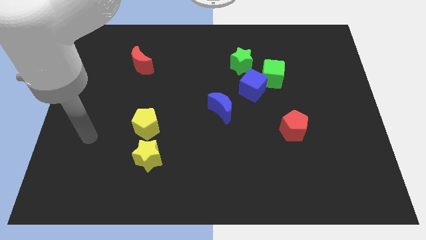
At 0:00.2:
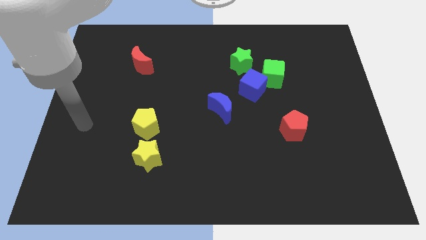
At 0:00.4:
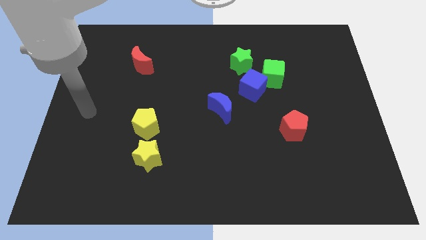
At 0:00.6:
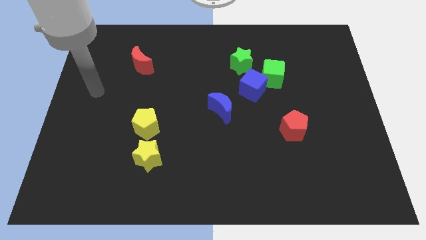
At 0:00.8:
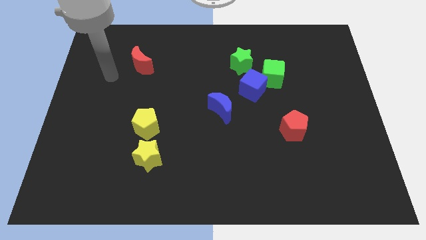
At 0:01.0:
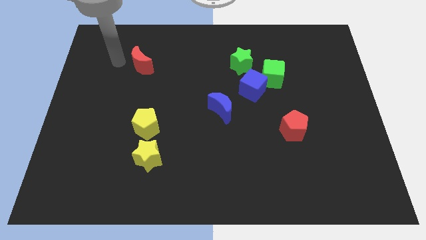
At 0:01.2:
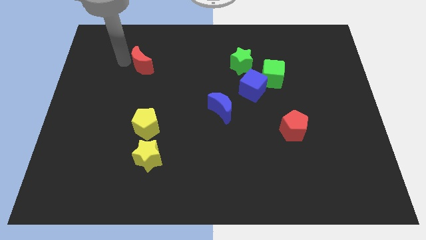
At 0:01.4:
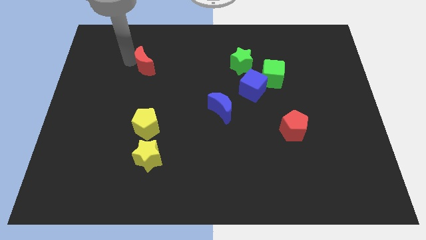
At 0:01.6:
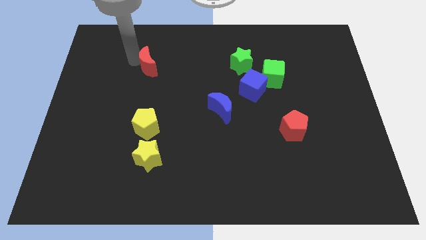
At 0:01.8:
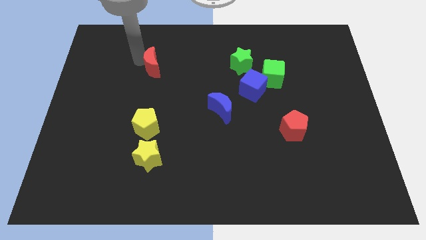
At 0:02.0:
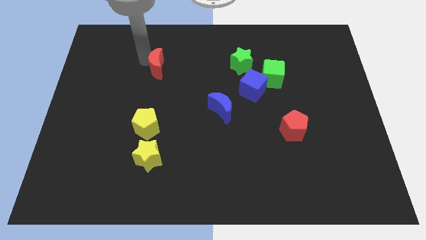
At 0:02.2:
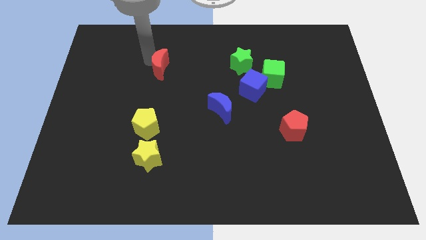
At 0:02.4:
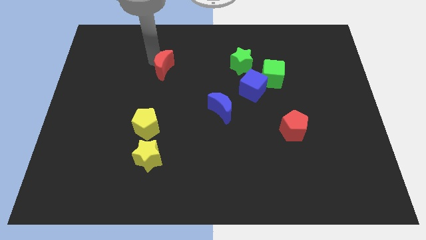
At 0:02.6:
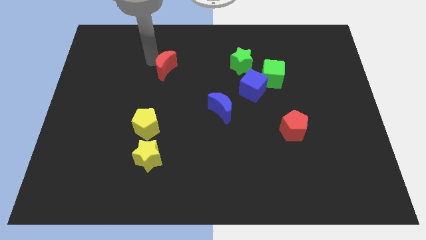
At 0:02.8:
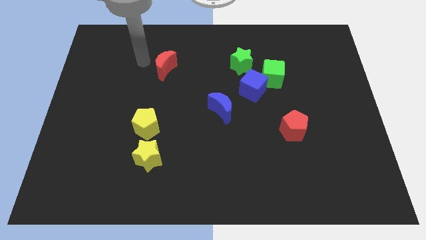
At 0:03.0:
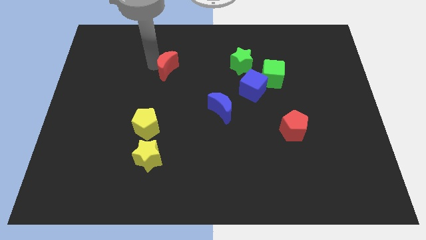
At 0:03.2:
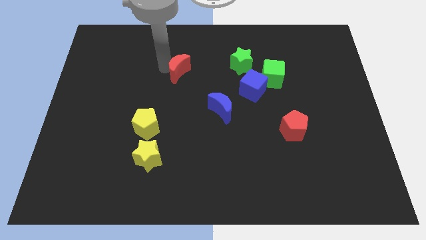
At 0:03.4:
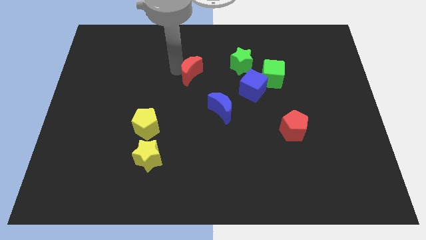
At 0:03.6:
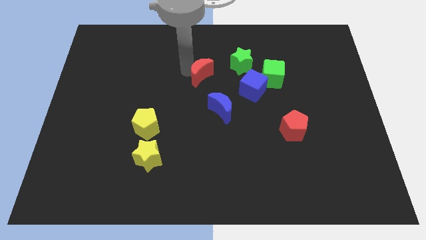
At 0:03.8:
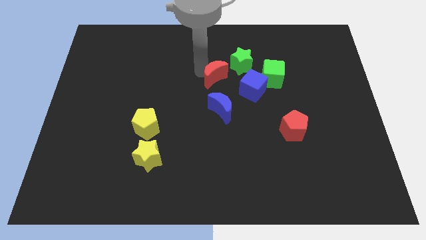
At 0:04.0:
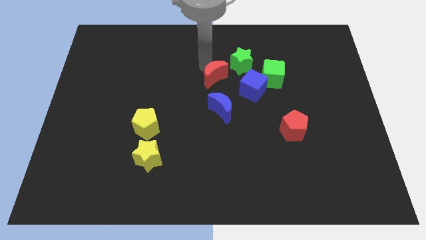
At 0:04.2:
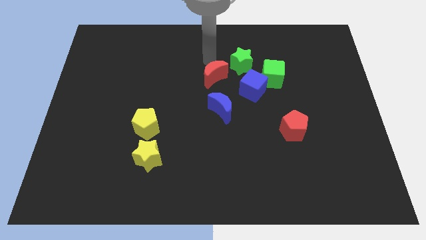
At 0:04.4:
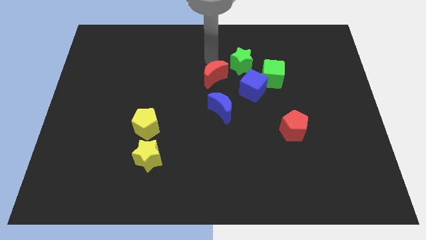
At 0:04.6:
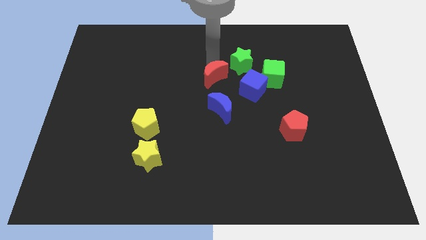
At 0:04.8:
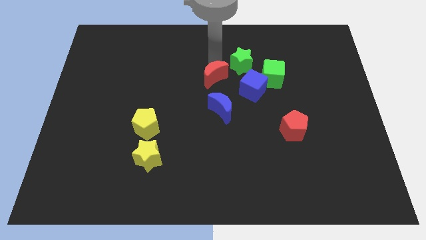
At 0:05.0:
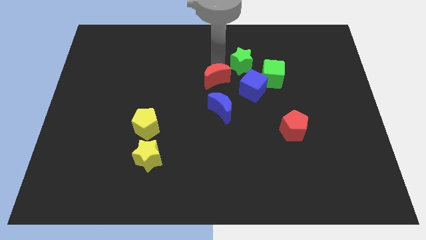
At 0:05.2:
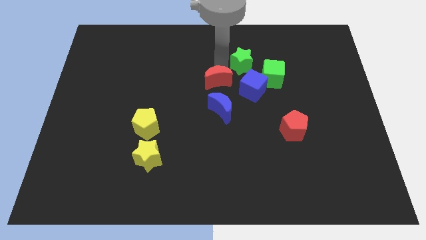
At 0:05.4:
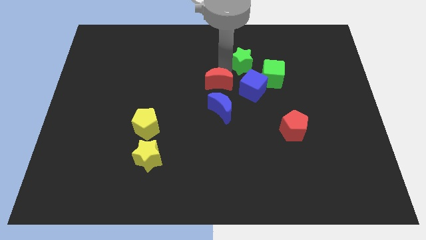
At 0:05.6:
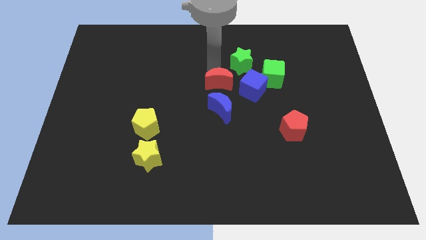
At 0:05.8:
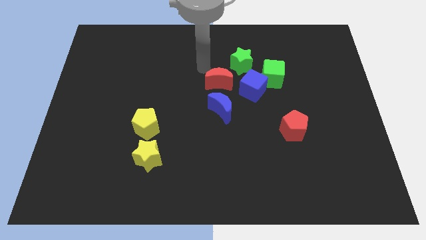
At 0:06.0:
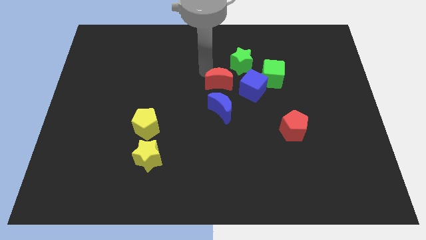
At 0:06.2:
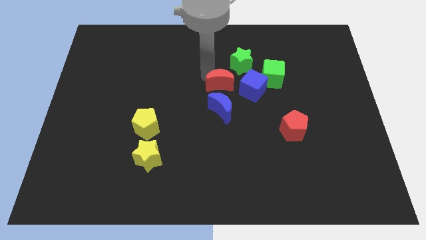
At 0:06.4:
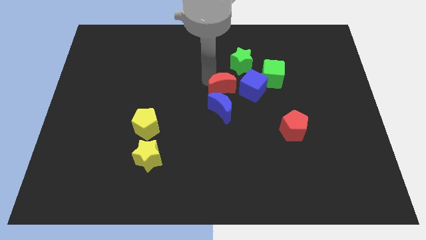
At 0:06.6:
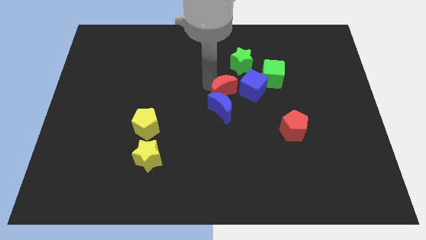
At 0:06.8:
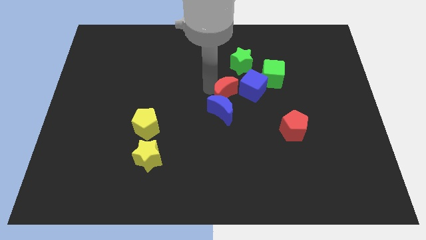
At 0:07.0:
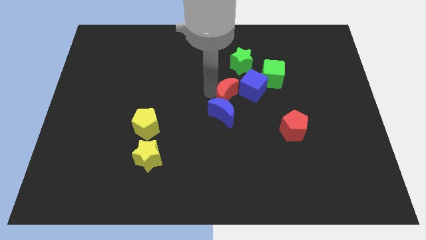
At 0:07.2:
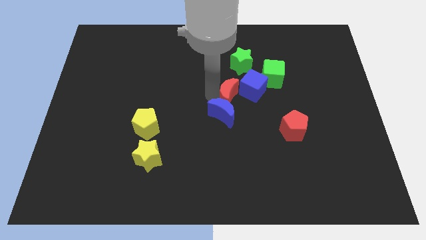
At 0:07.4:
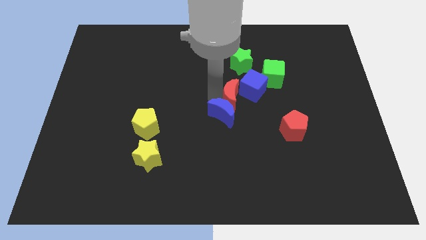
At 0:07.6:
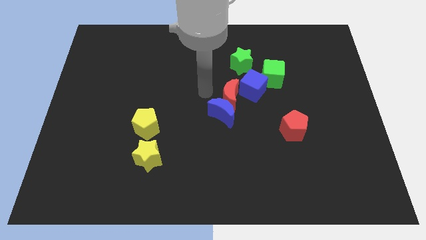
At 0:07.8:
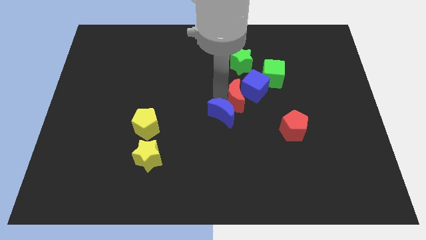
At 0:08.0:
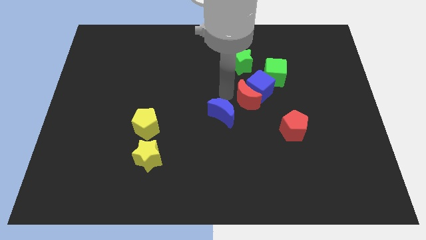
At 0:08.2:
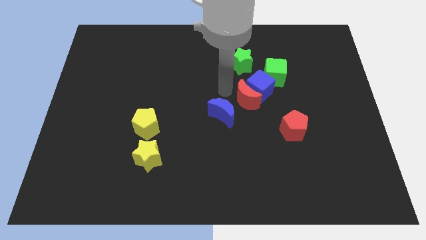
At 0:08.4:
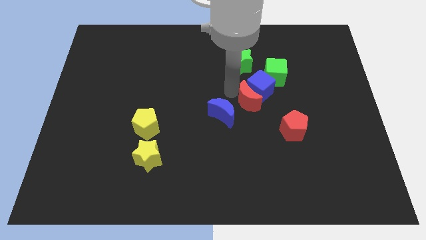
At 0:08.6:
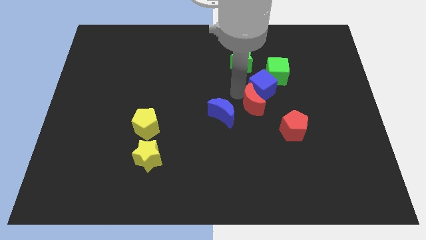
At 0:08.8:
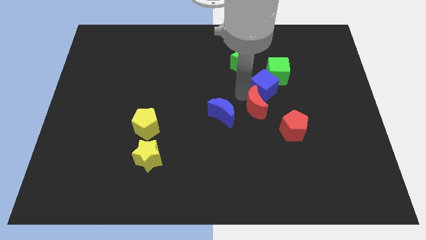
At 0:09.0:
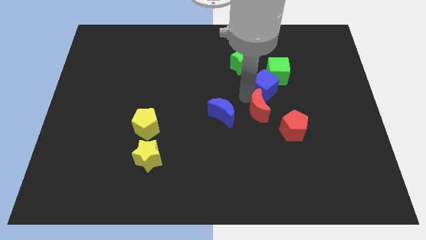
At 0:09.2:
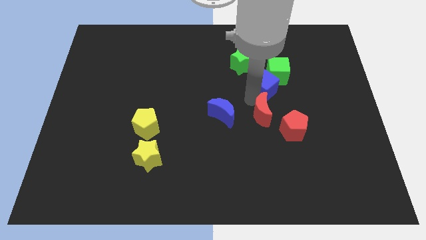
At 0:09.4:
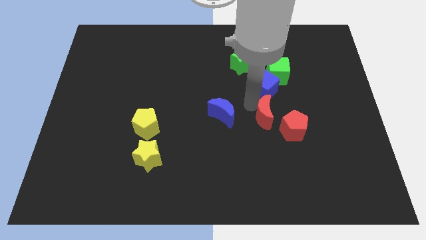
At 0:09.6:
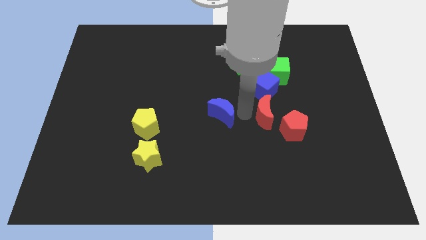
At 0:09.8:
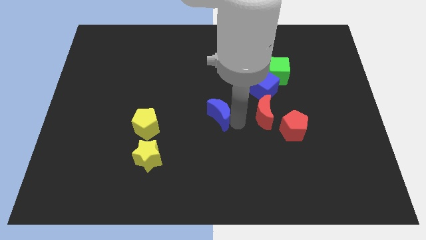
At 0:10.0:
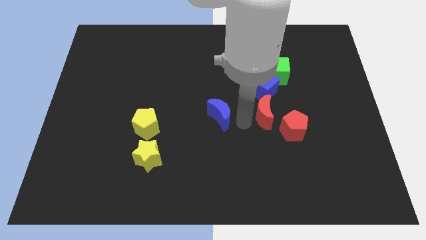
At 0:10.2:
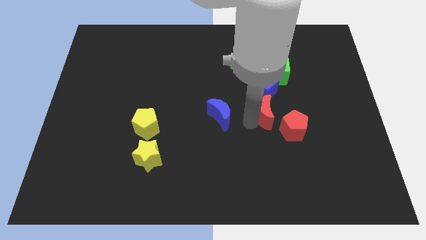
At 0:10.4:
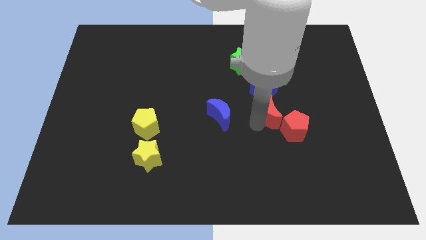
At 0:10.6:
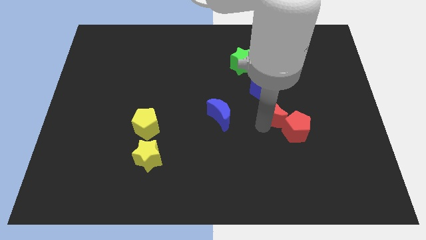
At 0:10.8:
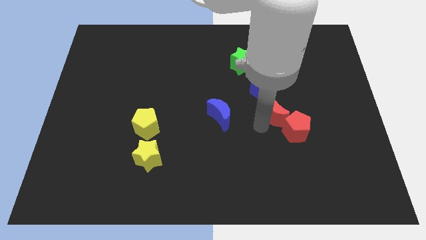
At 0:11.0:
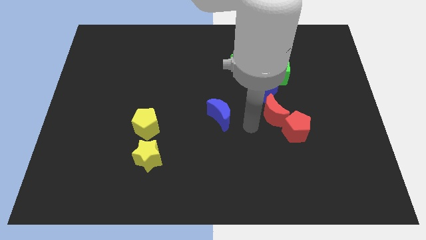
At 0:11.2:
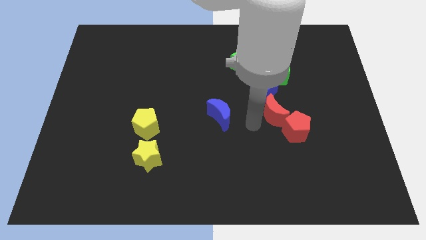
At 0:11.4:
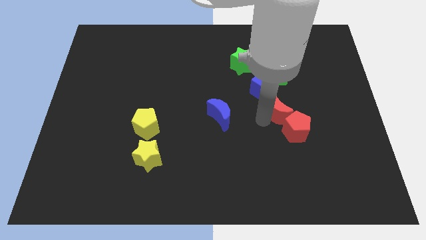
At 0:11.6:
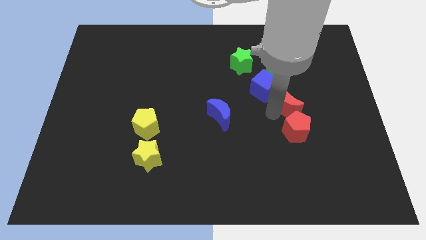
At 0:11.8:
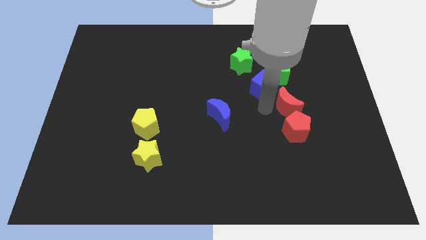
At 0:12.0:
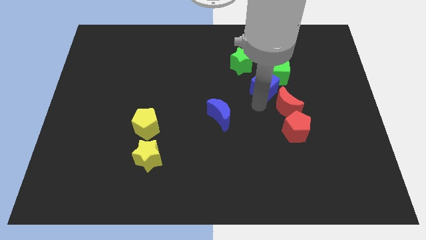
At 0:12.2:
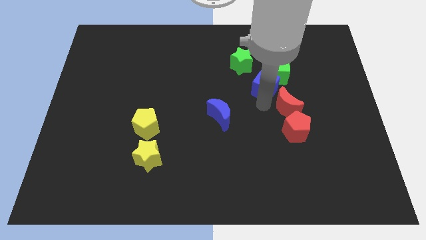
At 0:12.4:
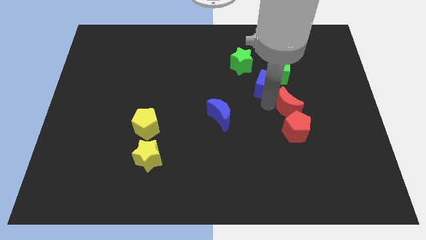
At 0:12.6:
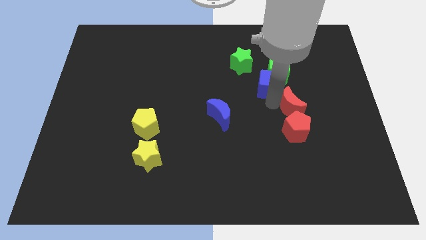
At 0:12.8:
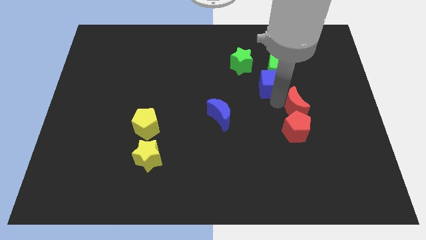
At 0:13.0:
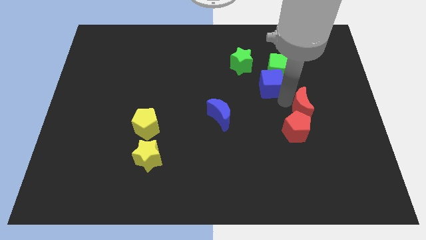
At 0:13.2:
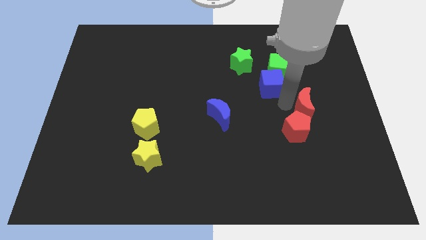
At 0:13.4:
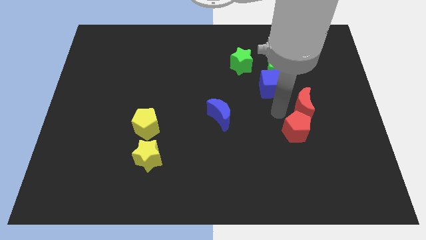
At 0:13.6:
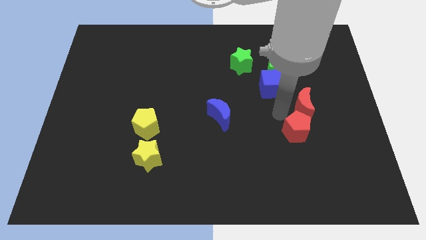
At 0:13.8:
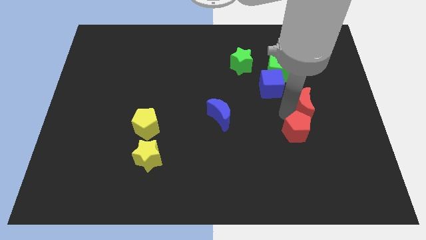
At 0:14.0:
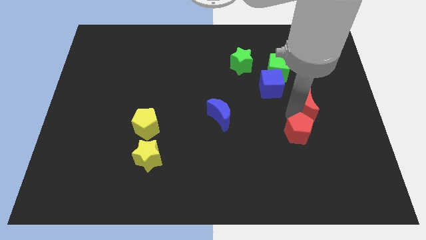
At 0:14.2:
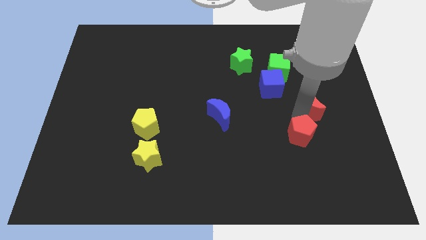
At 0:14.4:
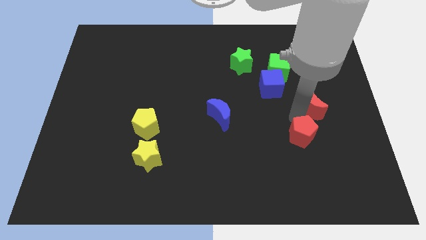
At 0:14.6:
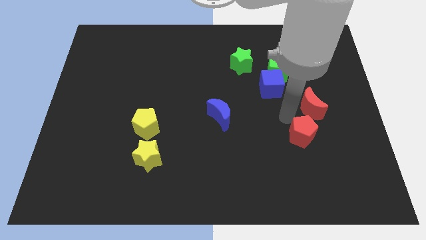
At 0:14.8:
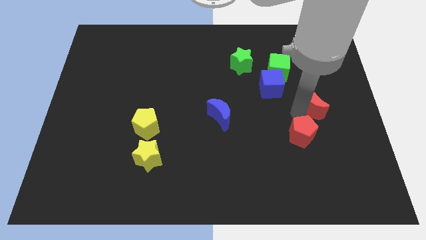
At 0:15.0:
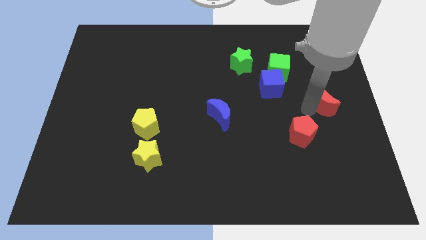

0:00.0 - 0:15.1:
slide the red moon to the center right
